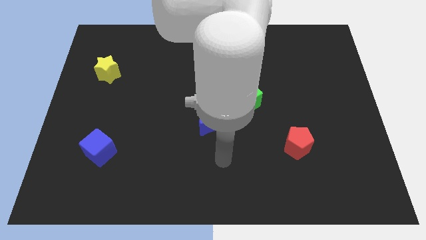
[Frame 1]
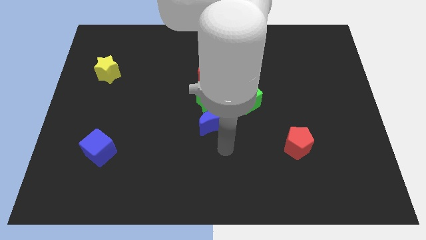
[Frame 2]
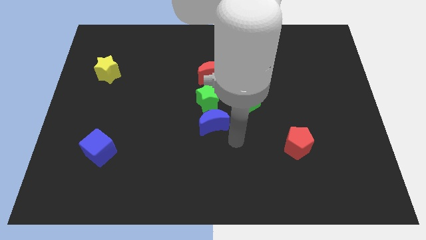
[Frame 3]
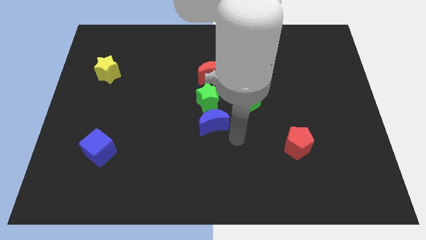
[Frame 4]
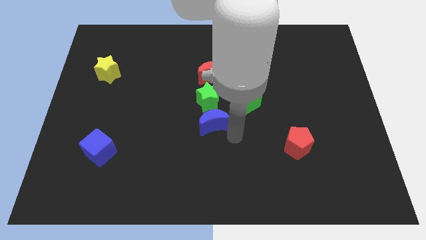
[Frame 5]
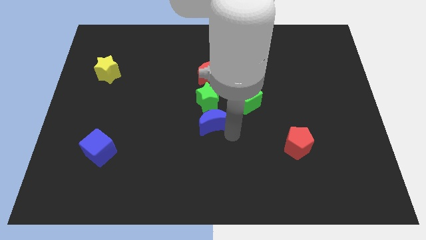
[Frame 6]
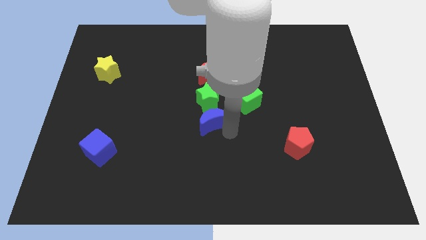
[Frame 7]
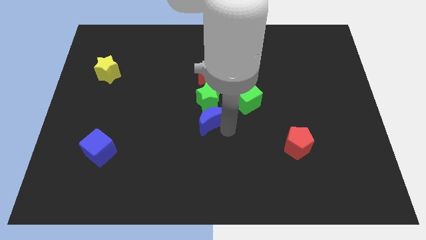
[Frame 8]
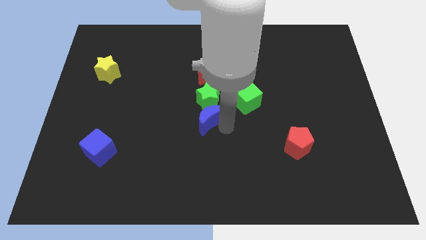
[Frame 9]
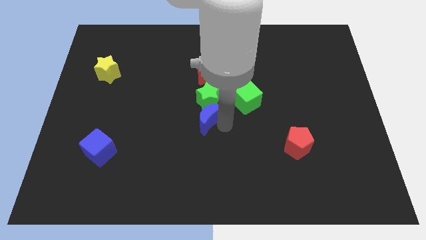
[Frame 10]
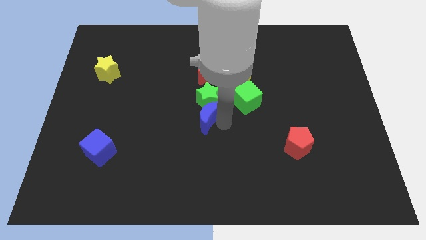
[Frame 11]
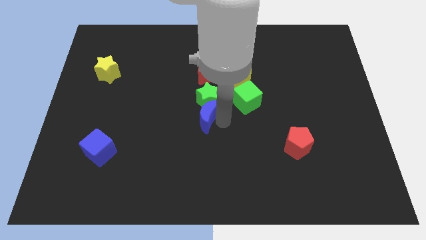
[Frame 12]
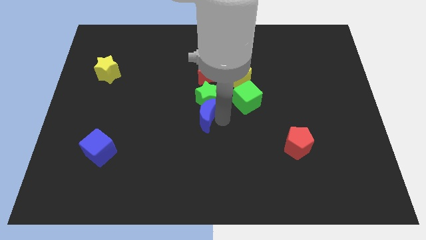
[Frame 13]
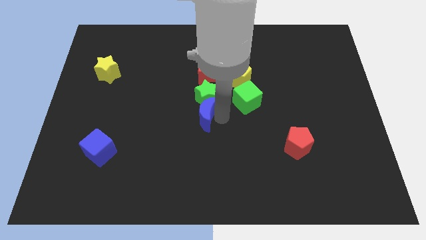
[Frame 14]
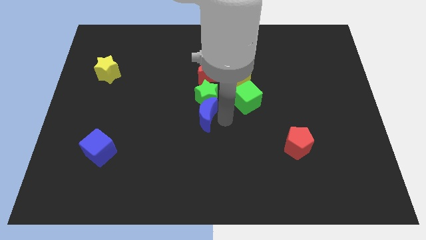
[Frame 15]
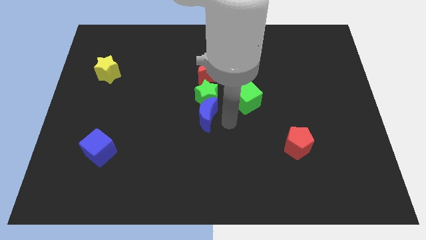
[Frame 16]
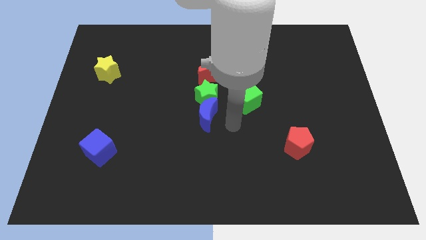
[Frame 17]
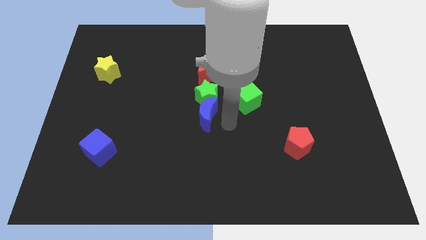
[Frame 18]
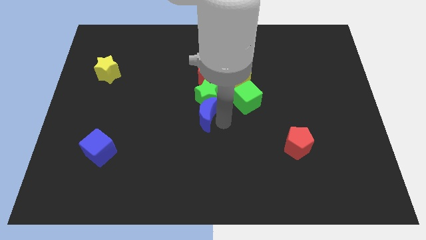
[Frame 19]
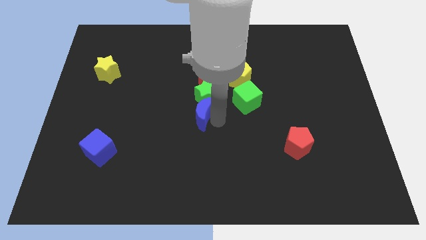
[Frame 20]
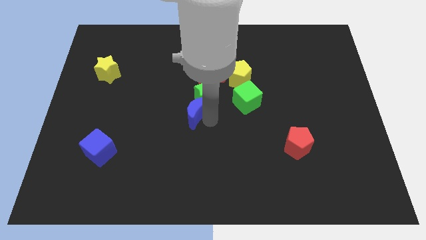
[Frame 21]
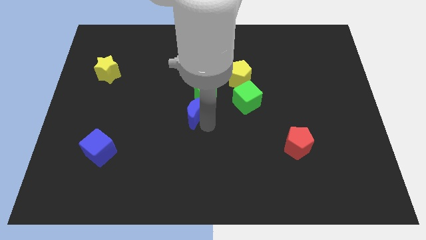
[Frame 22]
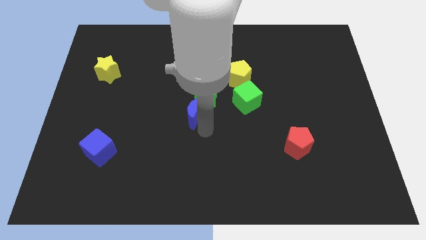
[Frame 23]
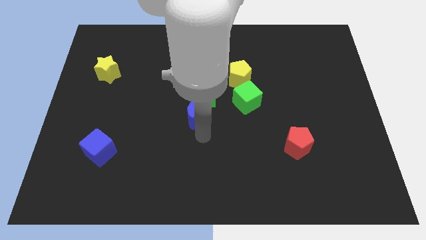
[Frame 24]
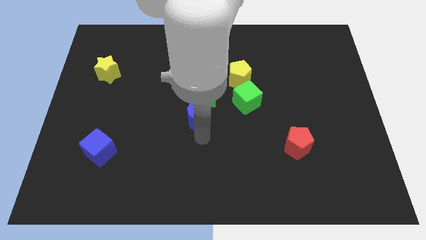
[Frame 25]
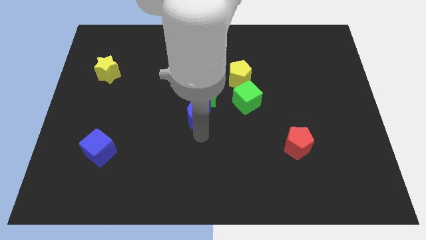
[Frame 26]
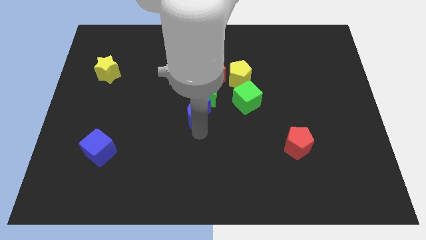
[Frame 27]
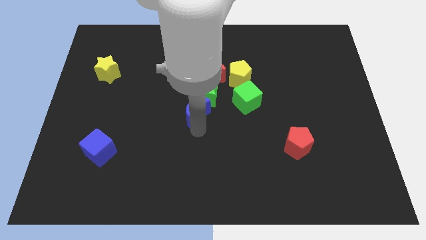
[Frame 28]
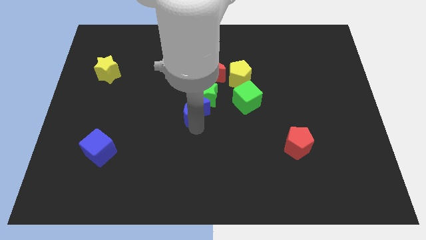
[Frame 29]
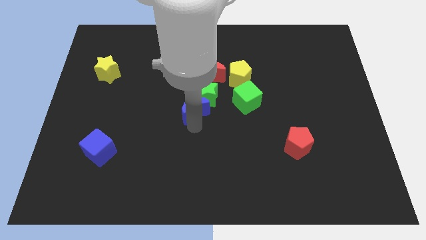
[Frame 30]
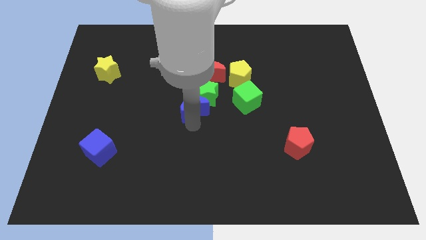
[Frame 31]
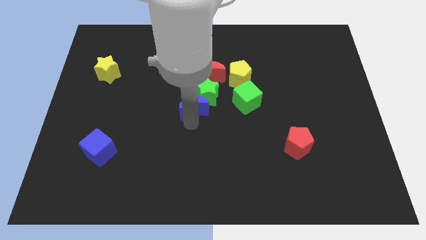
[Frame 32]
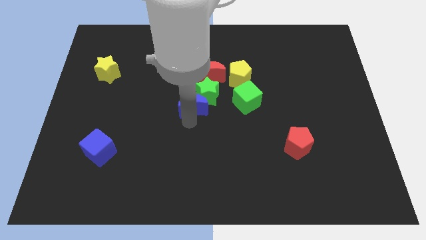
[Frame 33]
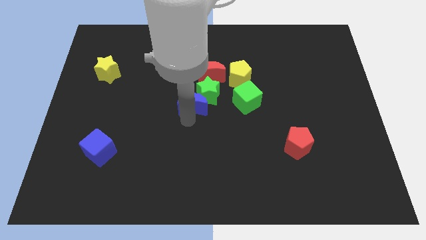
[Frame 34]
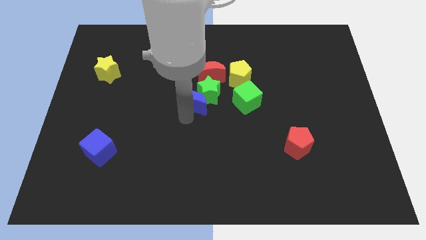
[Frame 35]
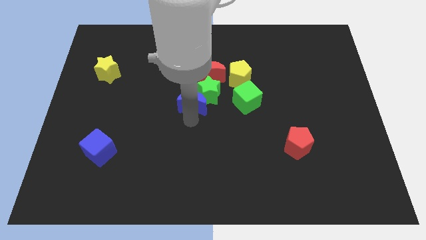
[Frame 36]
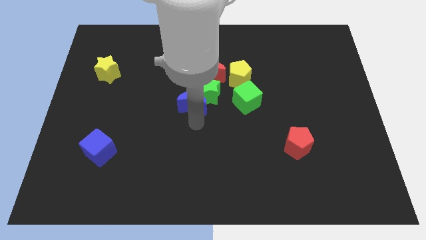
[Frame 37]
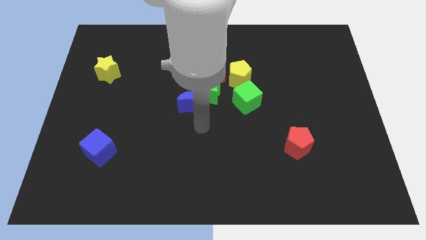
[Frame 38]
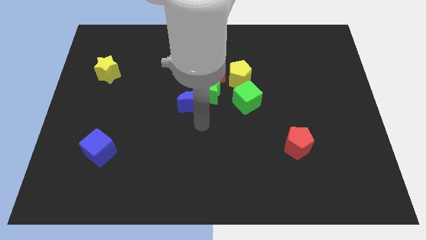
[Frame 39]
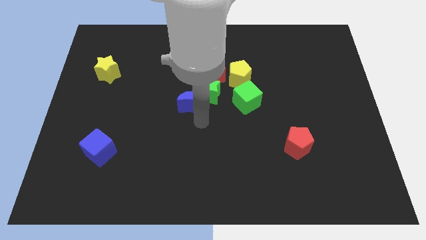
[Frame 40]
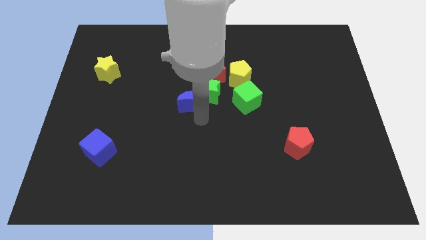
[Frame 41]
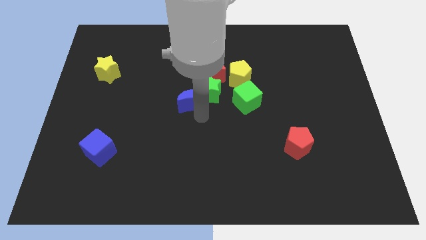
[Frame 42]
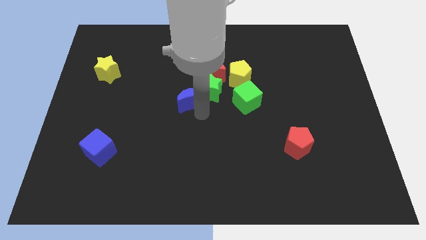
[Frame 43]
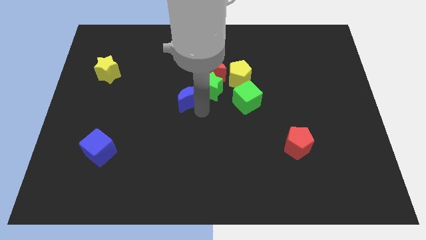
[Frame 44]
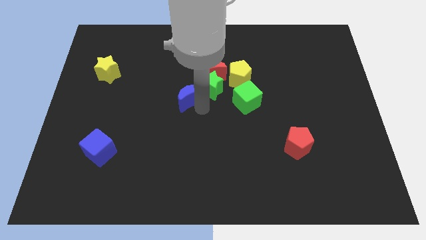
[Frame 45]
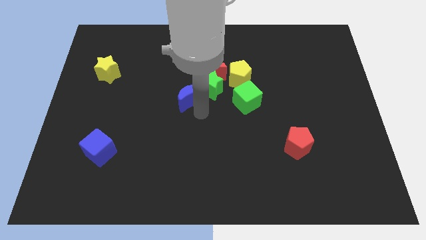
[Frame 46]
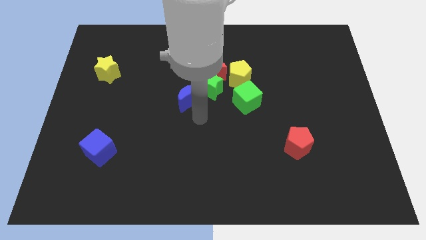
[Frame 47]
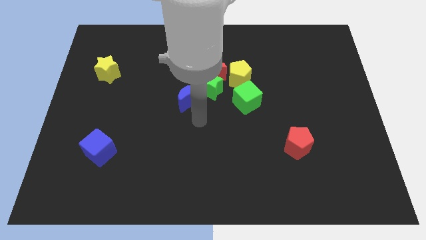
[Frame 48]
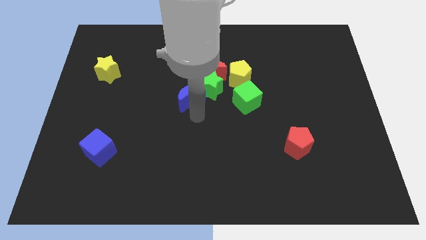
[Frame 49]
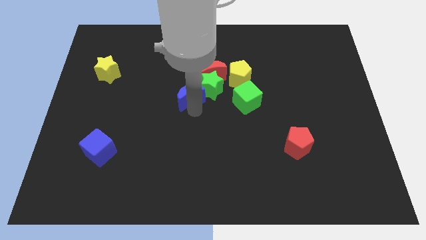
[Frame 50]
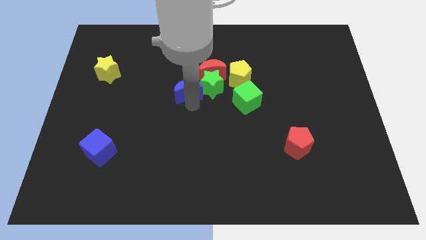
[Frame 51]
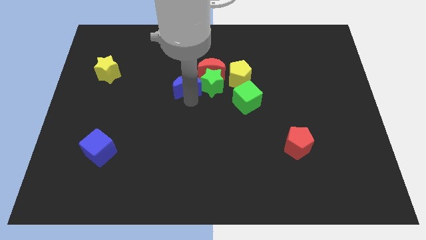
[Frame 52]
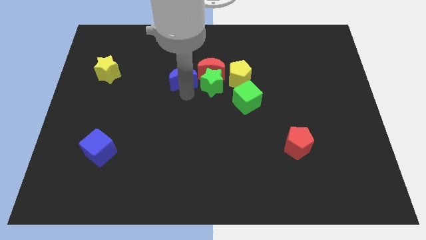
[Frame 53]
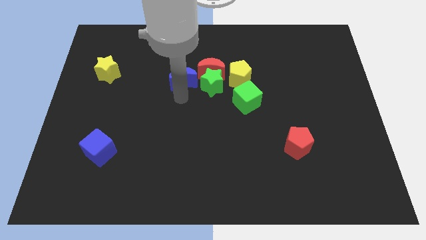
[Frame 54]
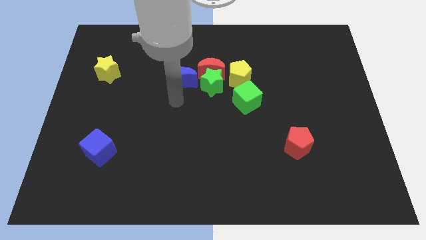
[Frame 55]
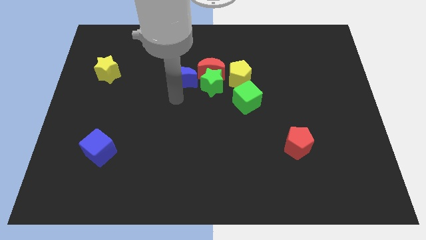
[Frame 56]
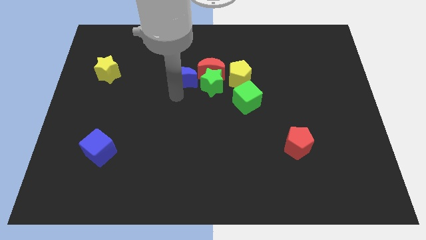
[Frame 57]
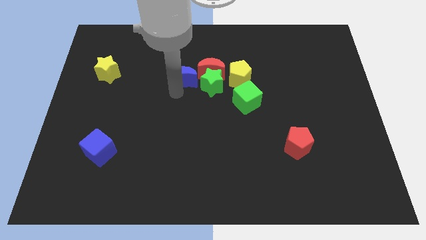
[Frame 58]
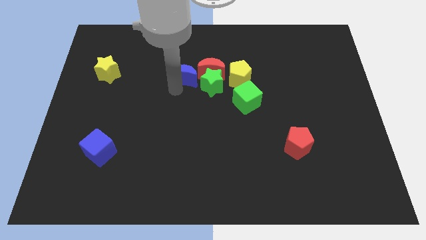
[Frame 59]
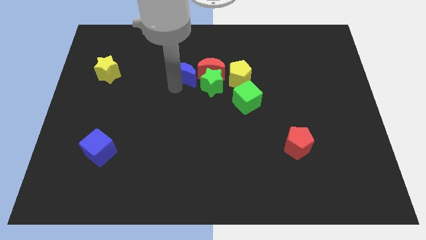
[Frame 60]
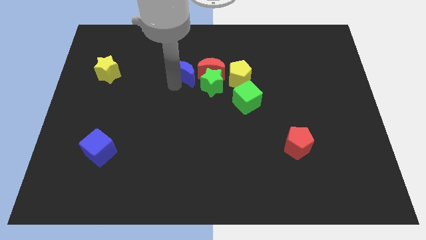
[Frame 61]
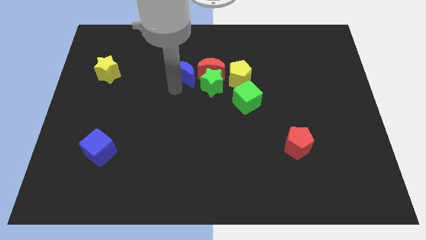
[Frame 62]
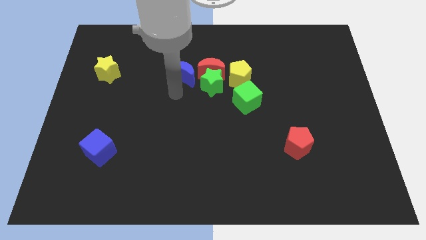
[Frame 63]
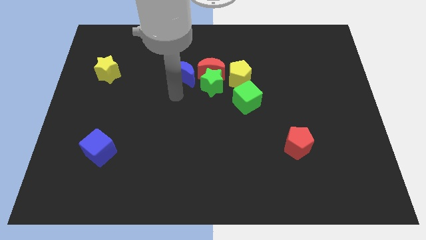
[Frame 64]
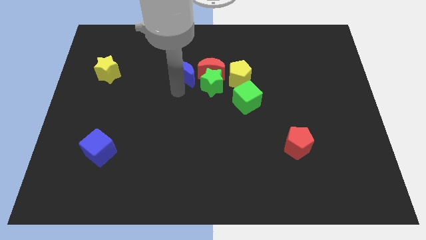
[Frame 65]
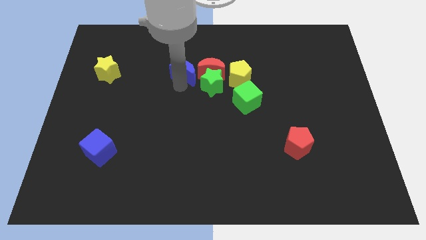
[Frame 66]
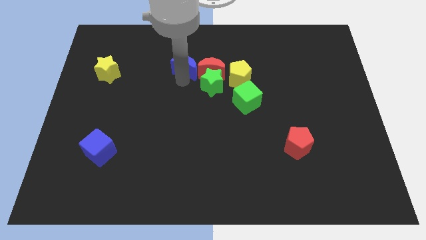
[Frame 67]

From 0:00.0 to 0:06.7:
move the blue moon diagonally up and to the left of the red moon
